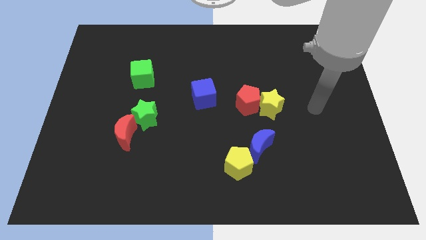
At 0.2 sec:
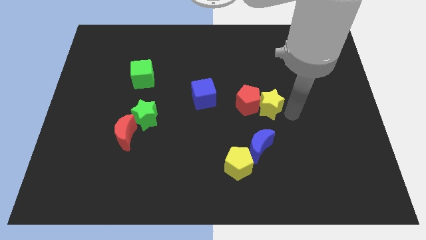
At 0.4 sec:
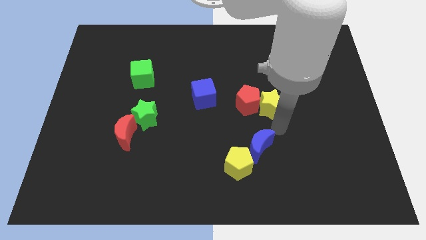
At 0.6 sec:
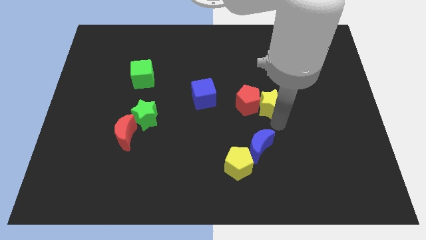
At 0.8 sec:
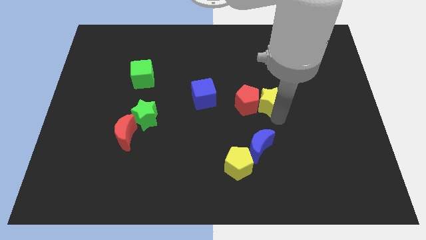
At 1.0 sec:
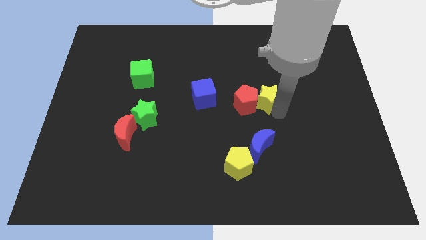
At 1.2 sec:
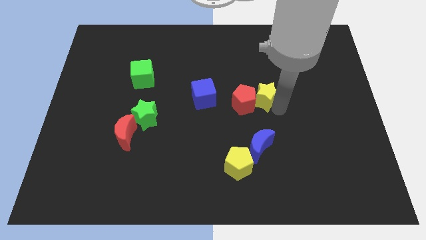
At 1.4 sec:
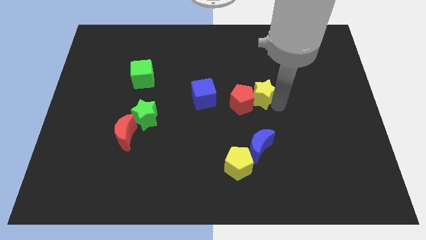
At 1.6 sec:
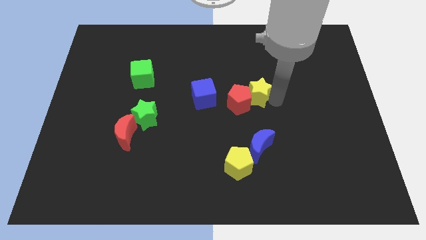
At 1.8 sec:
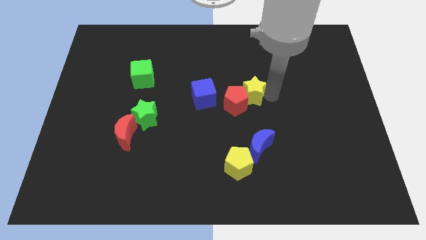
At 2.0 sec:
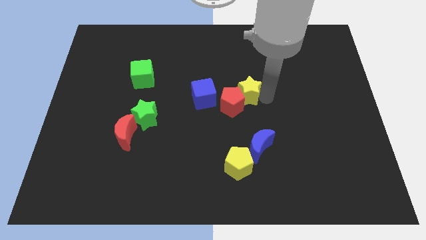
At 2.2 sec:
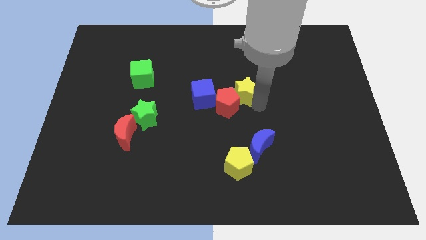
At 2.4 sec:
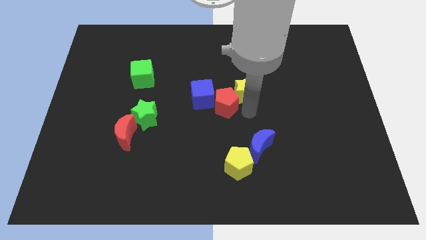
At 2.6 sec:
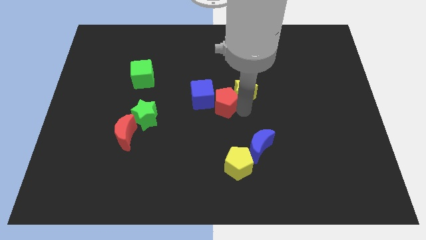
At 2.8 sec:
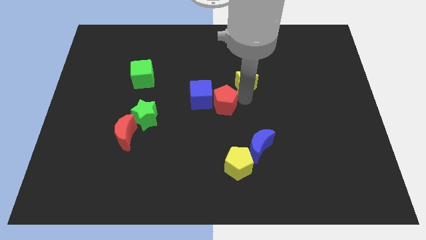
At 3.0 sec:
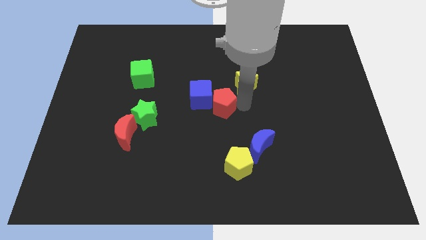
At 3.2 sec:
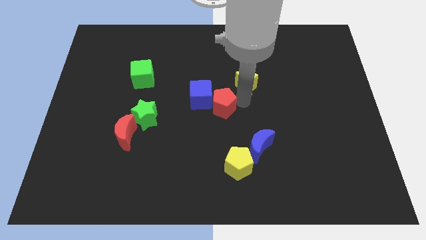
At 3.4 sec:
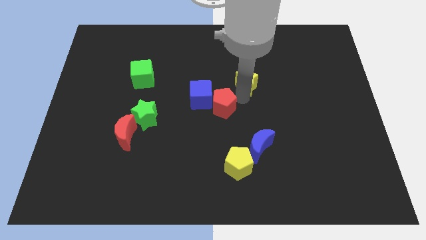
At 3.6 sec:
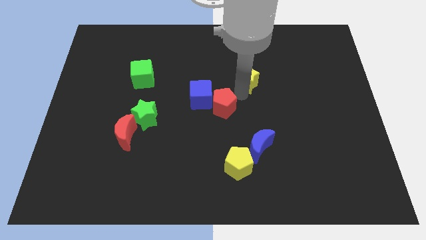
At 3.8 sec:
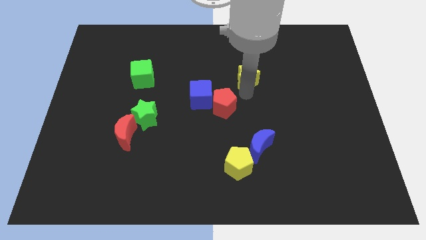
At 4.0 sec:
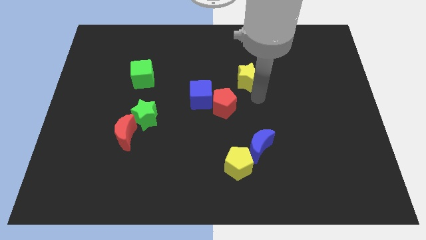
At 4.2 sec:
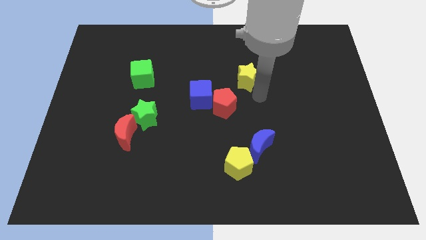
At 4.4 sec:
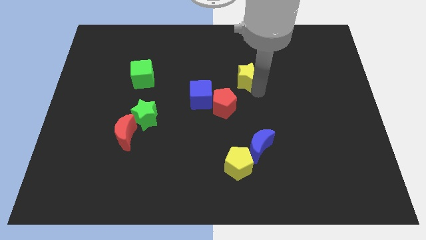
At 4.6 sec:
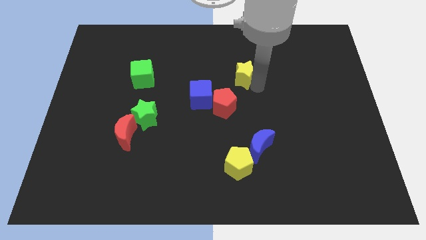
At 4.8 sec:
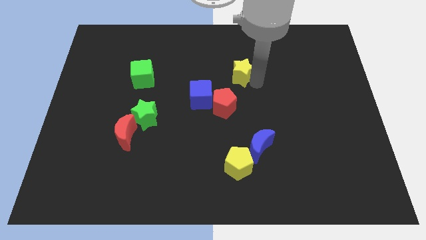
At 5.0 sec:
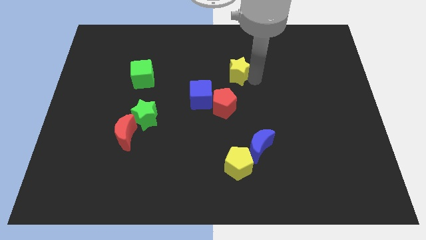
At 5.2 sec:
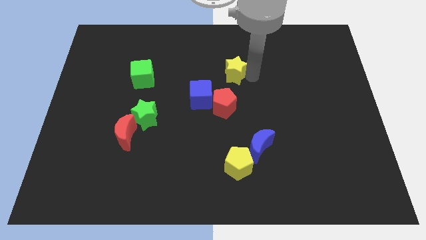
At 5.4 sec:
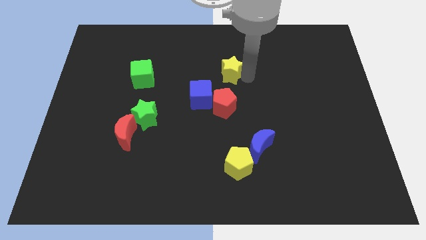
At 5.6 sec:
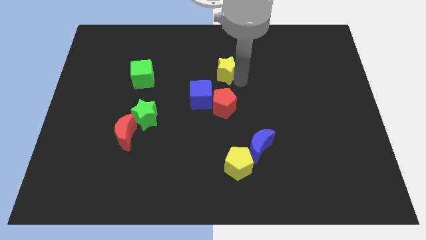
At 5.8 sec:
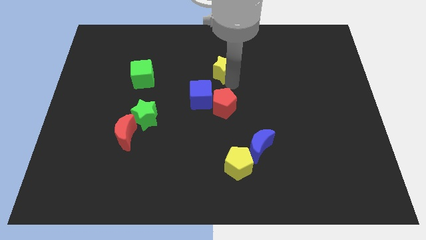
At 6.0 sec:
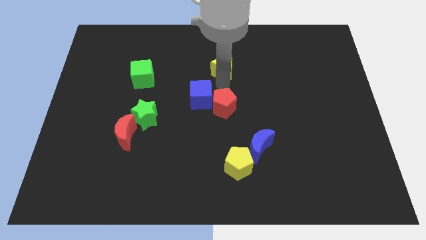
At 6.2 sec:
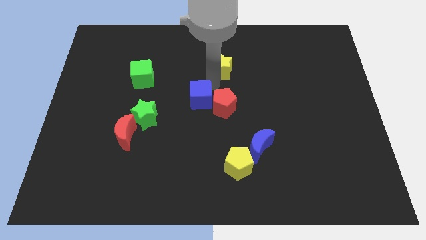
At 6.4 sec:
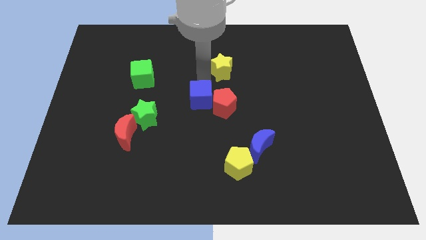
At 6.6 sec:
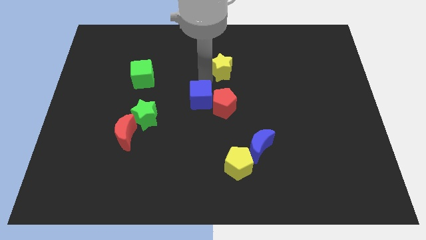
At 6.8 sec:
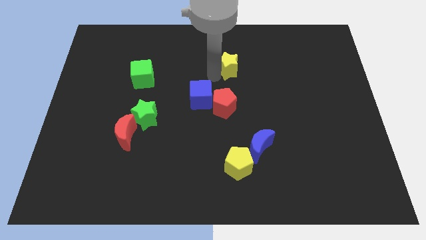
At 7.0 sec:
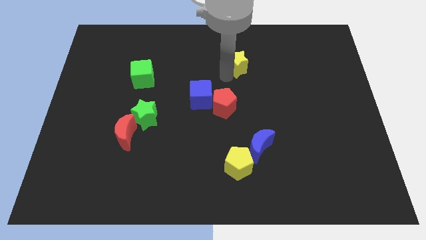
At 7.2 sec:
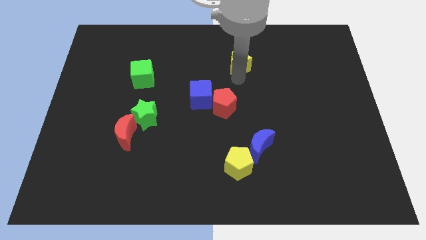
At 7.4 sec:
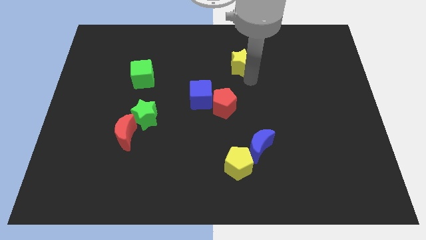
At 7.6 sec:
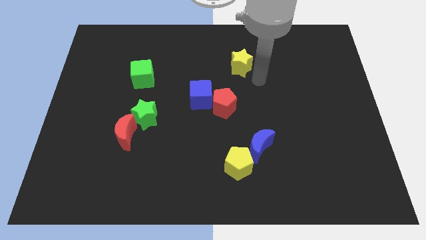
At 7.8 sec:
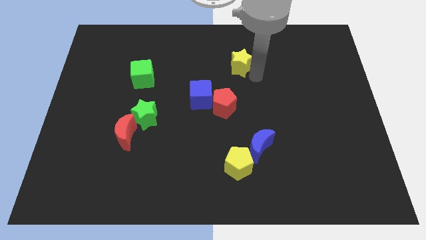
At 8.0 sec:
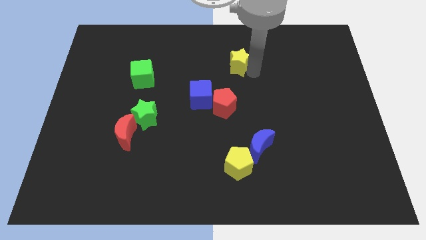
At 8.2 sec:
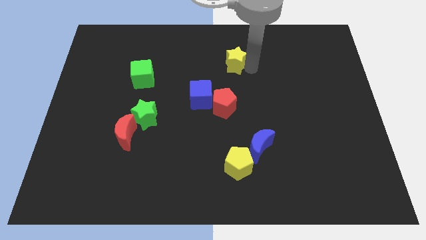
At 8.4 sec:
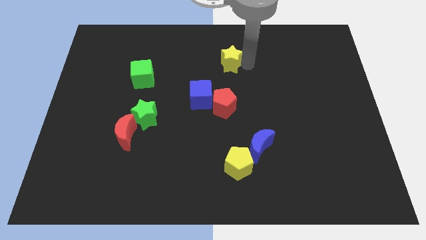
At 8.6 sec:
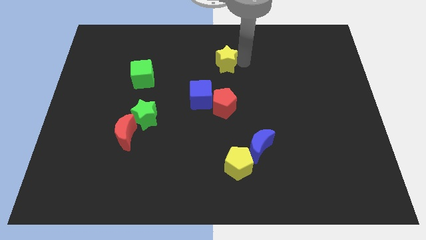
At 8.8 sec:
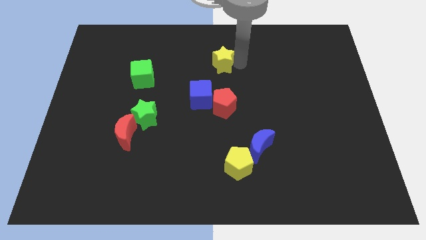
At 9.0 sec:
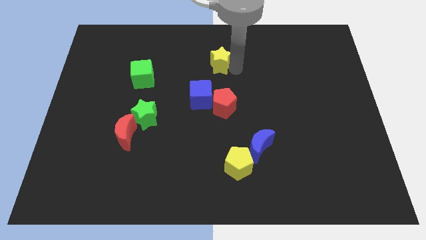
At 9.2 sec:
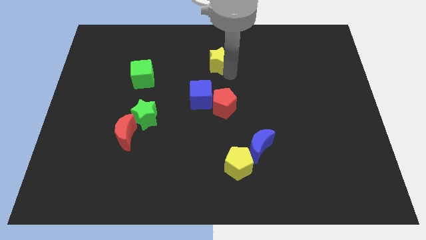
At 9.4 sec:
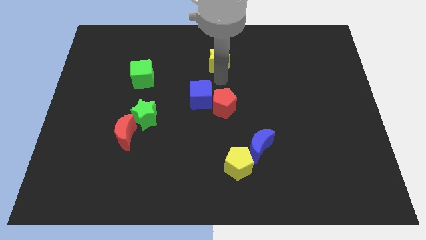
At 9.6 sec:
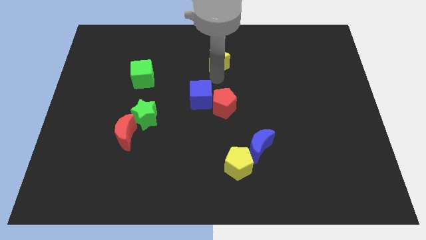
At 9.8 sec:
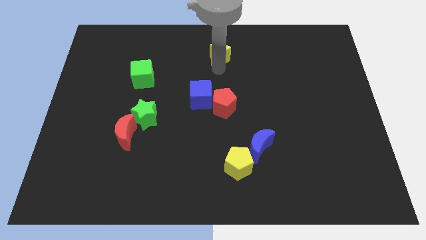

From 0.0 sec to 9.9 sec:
move the yellow star to the top
